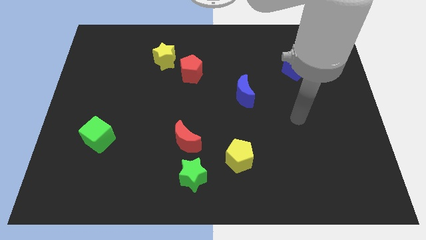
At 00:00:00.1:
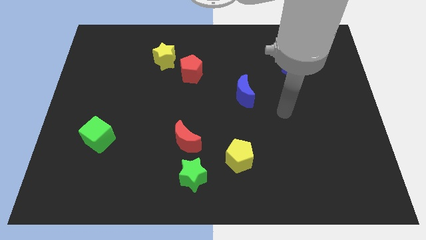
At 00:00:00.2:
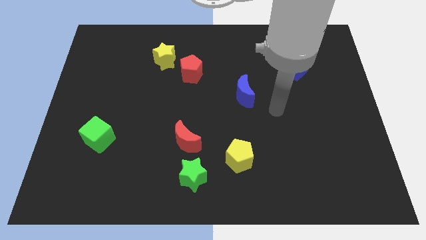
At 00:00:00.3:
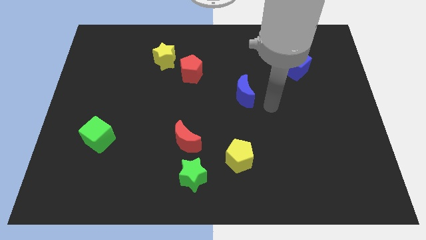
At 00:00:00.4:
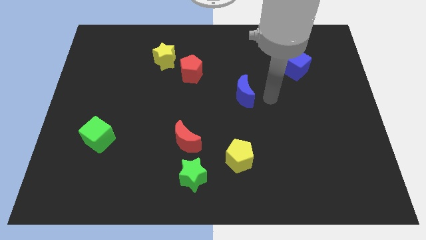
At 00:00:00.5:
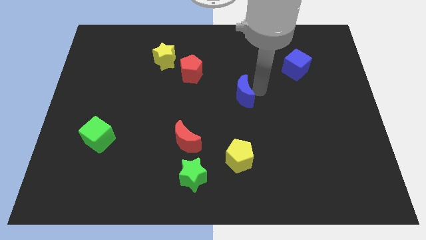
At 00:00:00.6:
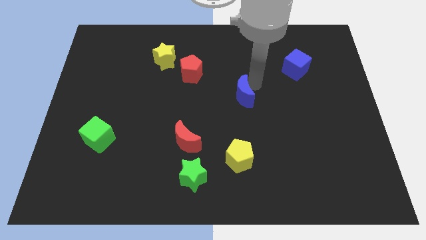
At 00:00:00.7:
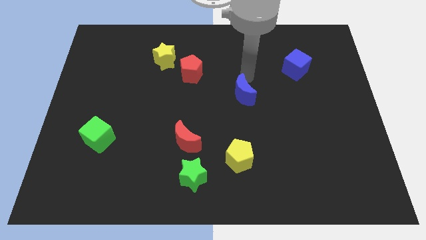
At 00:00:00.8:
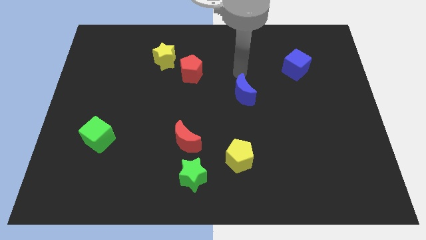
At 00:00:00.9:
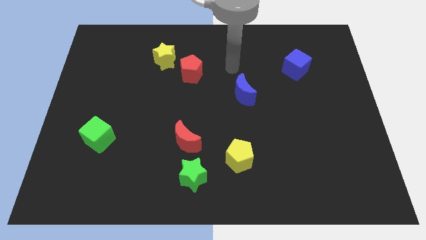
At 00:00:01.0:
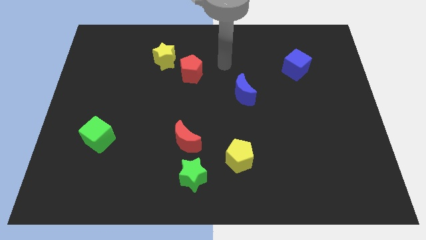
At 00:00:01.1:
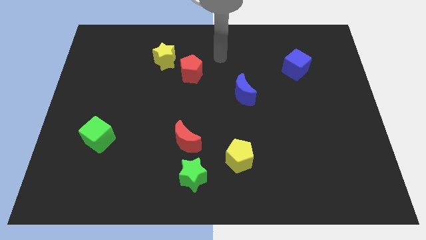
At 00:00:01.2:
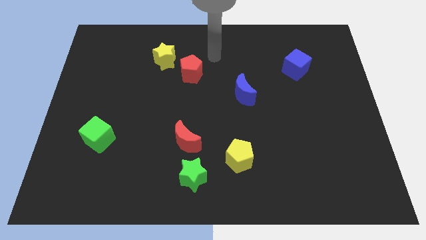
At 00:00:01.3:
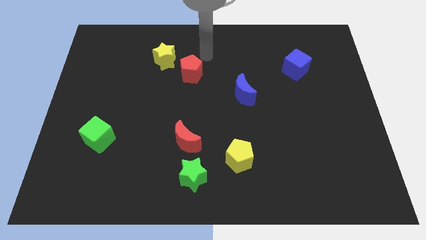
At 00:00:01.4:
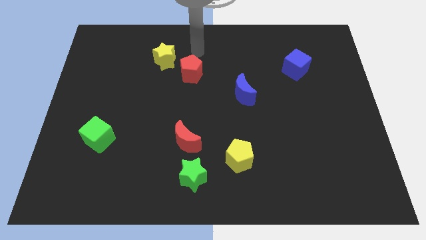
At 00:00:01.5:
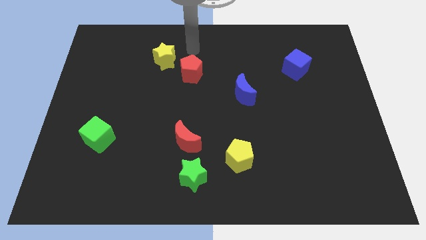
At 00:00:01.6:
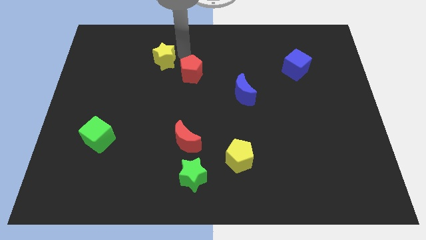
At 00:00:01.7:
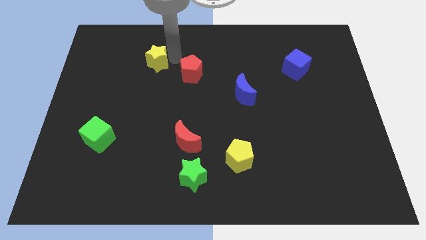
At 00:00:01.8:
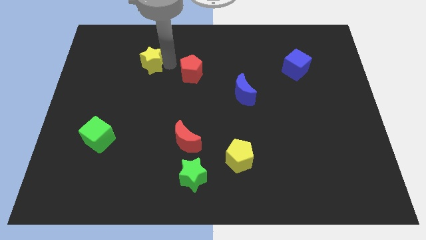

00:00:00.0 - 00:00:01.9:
pull the red pentagon apart from the yellow star

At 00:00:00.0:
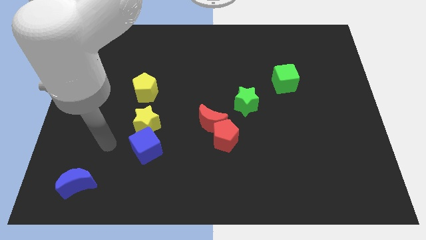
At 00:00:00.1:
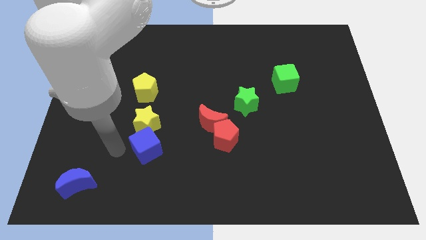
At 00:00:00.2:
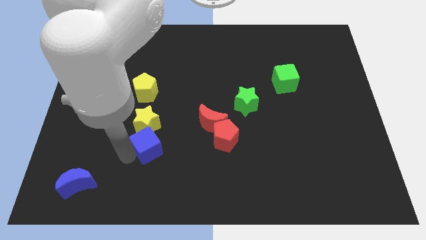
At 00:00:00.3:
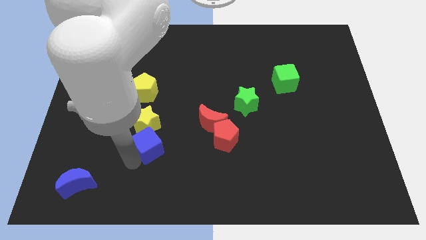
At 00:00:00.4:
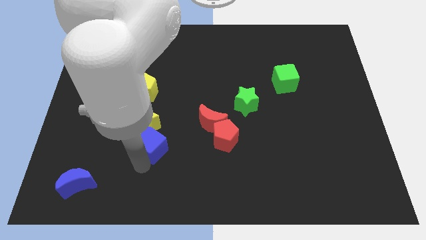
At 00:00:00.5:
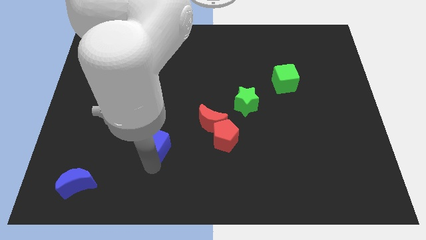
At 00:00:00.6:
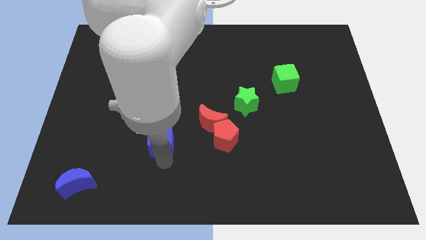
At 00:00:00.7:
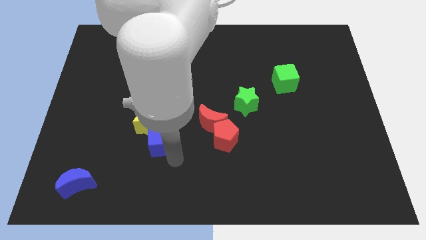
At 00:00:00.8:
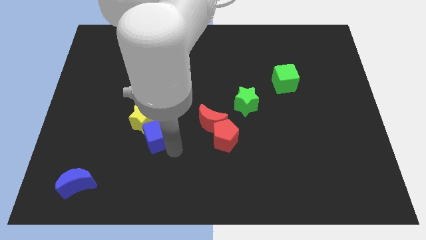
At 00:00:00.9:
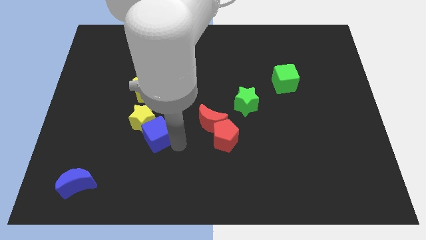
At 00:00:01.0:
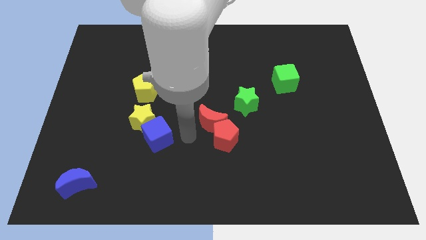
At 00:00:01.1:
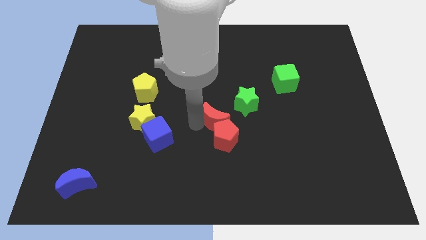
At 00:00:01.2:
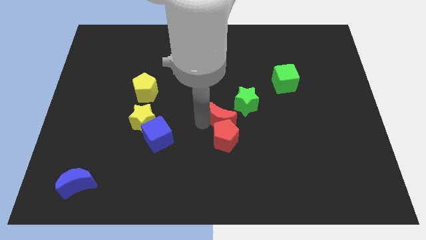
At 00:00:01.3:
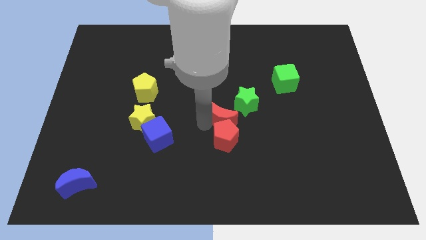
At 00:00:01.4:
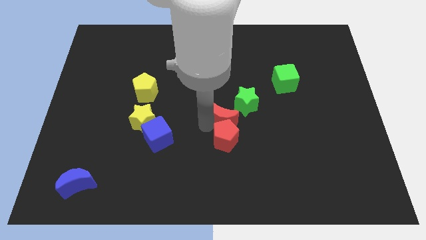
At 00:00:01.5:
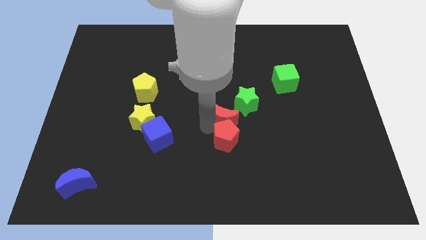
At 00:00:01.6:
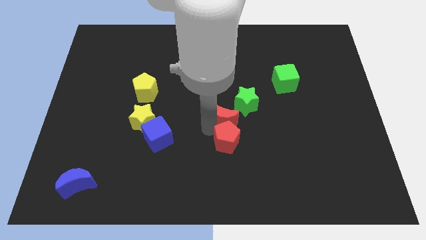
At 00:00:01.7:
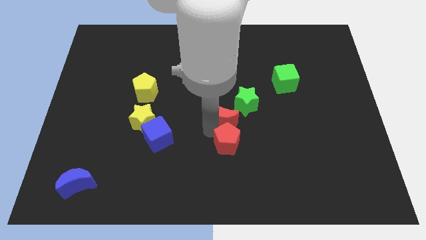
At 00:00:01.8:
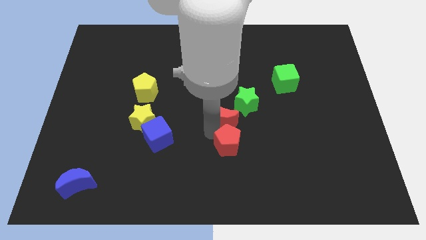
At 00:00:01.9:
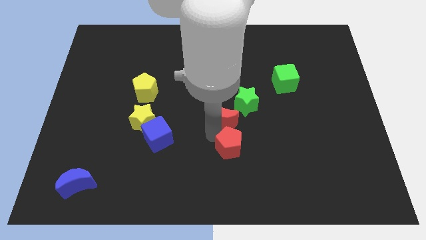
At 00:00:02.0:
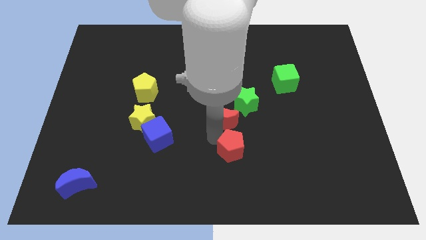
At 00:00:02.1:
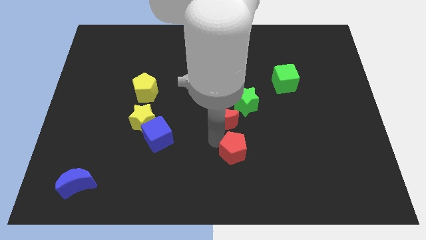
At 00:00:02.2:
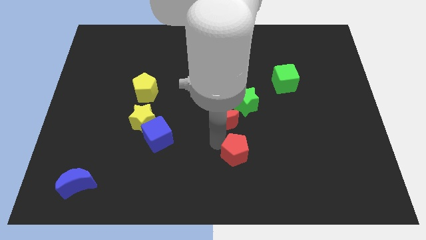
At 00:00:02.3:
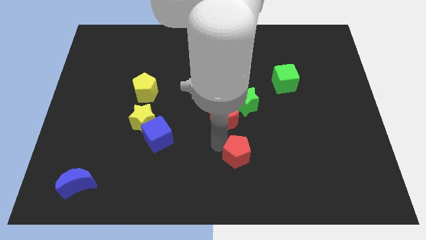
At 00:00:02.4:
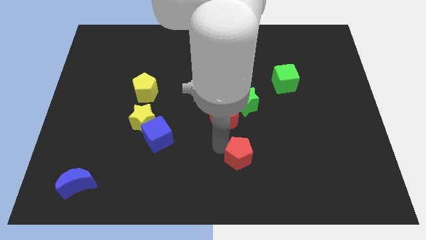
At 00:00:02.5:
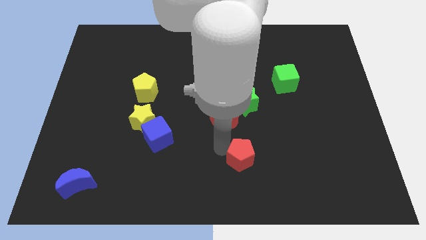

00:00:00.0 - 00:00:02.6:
move the red pentagon away from the red moon

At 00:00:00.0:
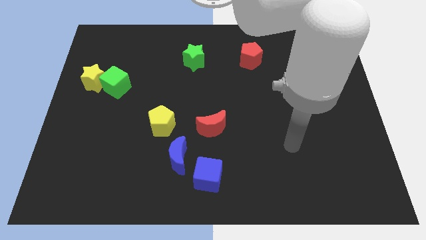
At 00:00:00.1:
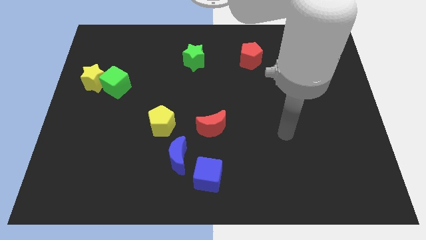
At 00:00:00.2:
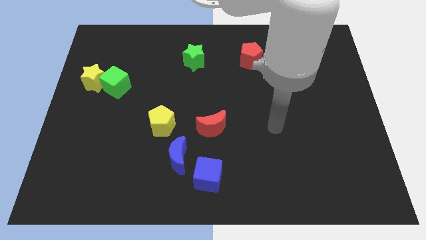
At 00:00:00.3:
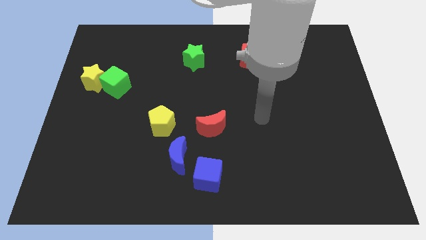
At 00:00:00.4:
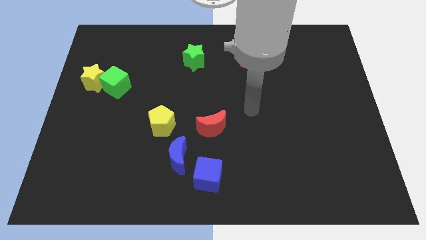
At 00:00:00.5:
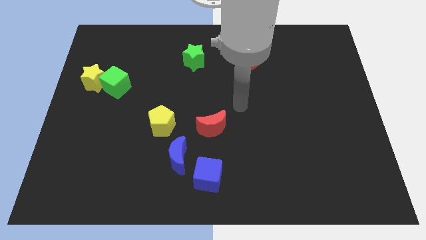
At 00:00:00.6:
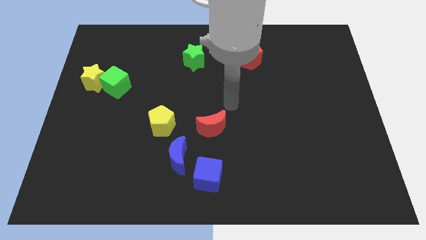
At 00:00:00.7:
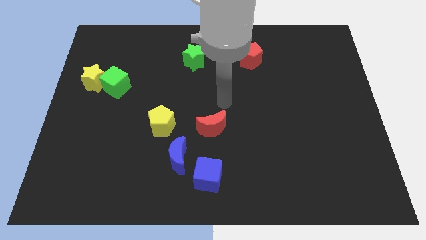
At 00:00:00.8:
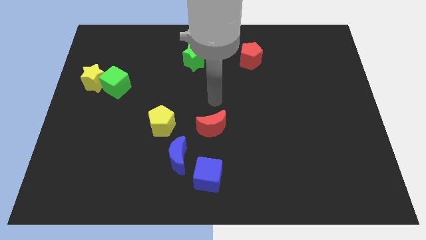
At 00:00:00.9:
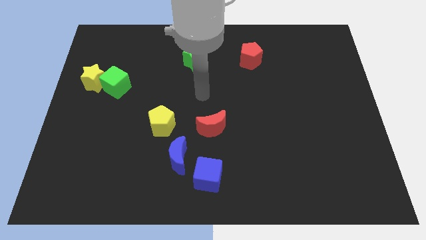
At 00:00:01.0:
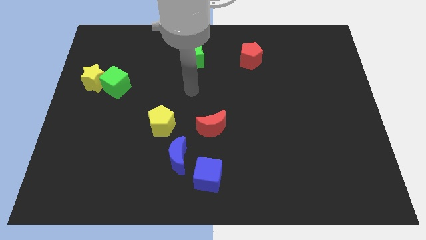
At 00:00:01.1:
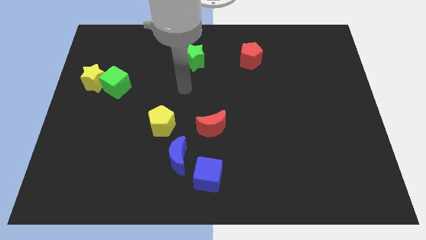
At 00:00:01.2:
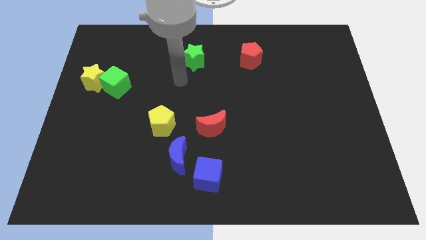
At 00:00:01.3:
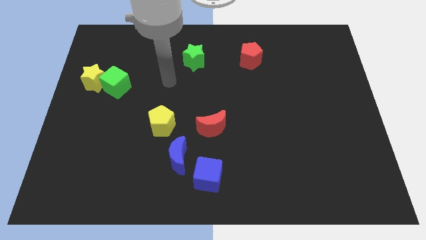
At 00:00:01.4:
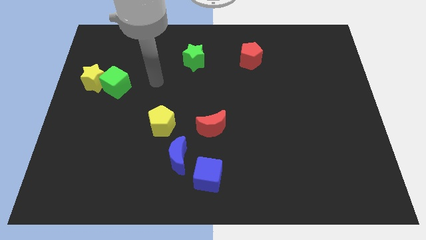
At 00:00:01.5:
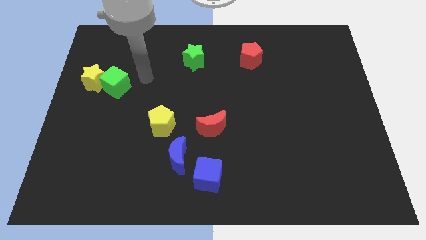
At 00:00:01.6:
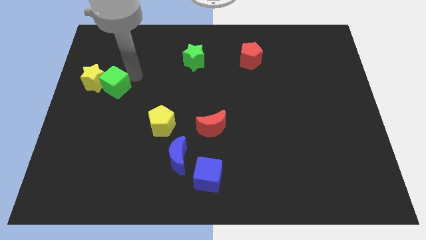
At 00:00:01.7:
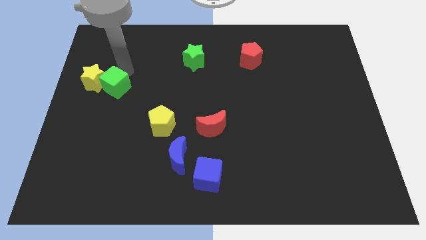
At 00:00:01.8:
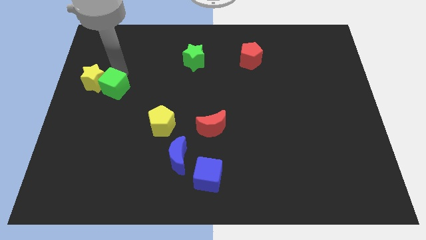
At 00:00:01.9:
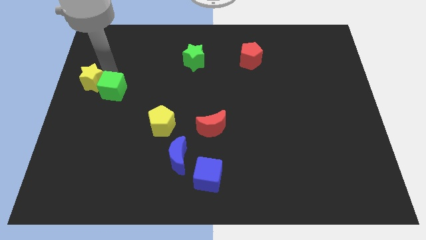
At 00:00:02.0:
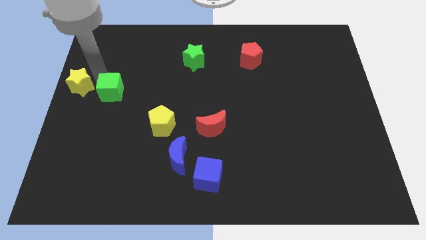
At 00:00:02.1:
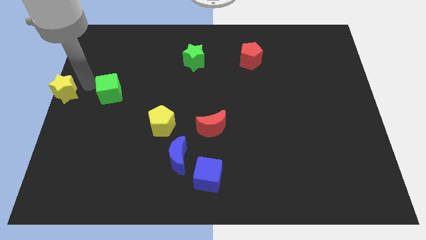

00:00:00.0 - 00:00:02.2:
separate the green cube from the yellow star

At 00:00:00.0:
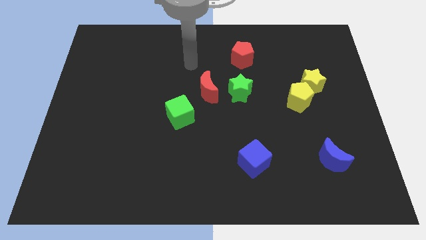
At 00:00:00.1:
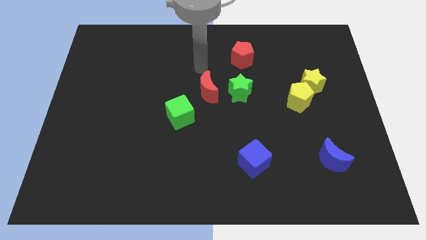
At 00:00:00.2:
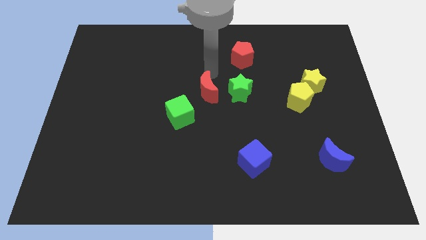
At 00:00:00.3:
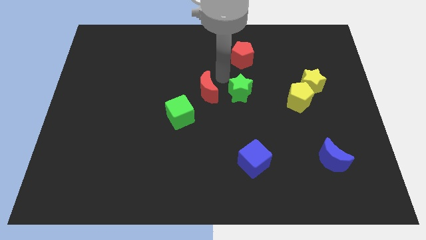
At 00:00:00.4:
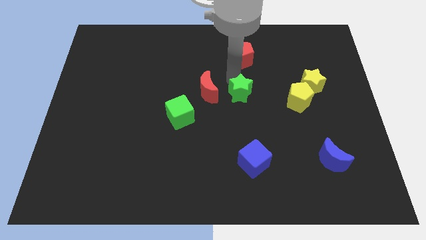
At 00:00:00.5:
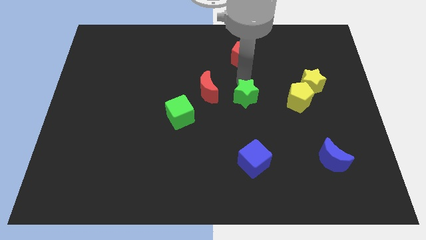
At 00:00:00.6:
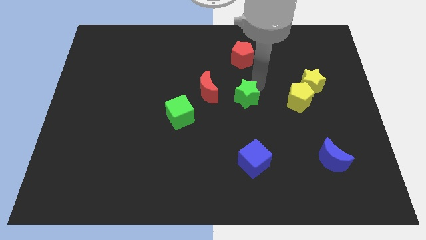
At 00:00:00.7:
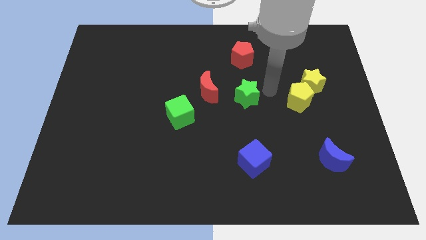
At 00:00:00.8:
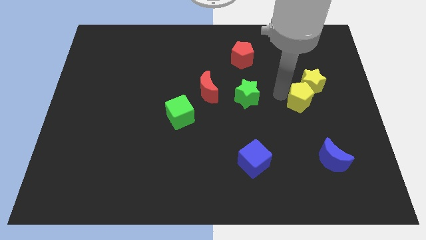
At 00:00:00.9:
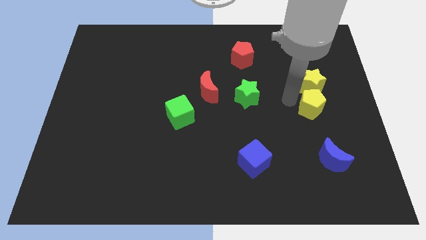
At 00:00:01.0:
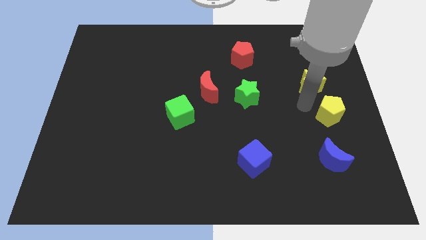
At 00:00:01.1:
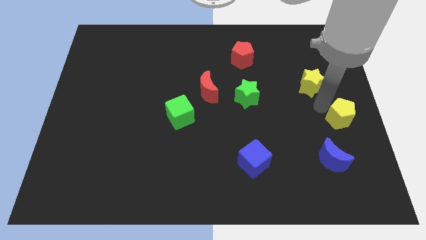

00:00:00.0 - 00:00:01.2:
move the yellow star away from the yellow pentagon

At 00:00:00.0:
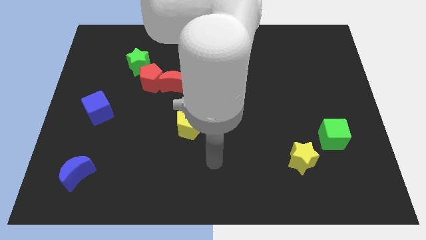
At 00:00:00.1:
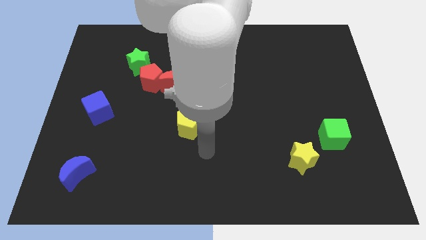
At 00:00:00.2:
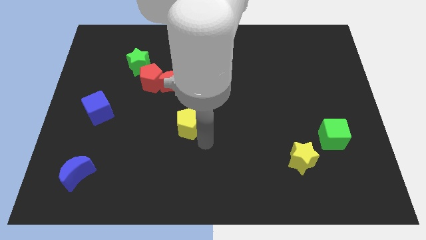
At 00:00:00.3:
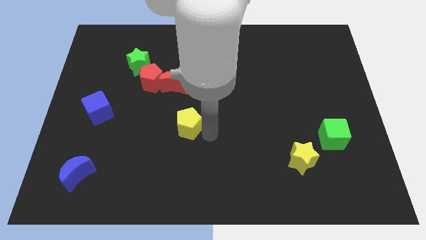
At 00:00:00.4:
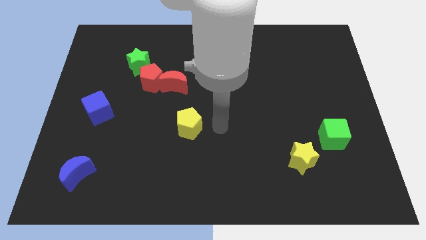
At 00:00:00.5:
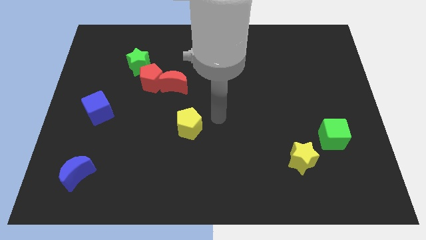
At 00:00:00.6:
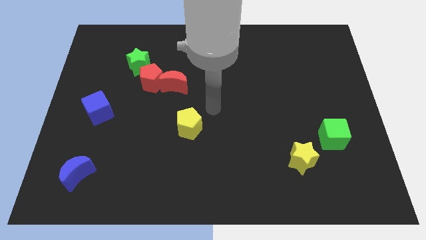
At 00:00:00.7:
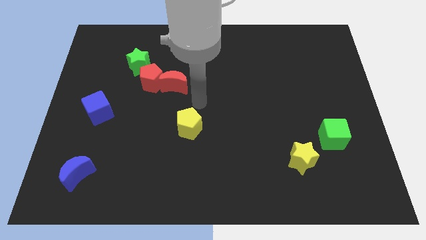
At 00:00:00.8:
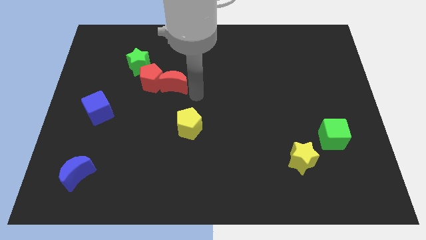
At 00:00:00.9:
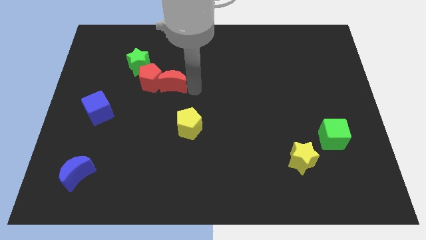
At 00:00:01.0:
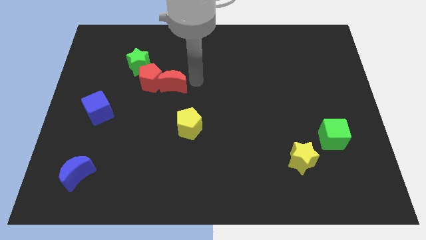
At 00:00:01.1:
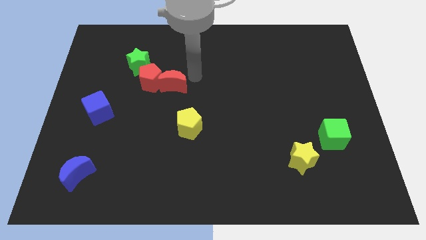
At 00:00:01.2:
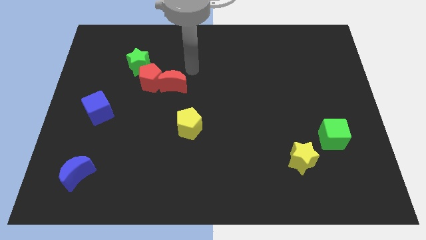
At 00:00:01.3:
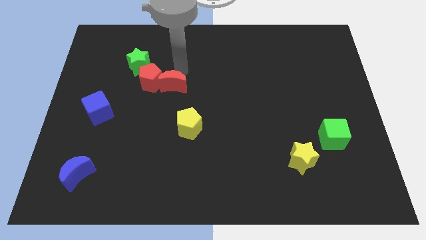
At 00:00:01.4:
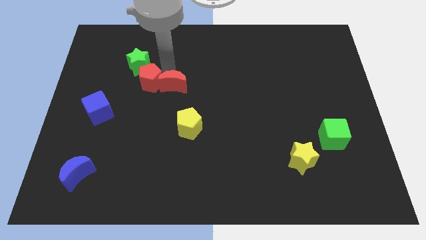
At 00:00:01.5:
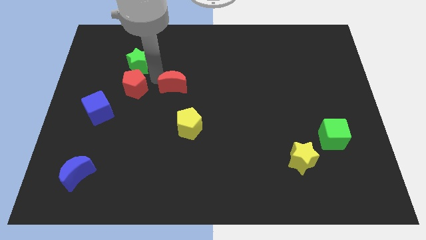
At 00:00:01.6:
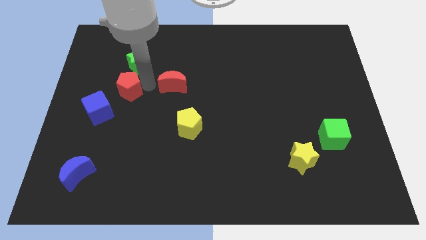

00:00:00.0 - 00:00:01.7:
separate the red moon from the red pentagon
